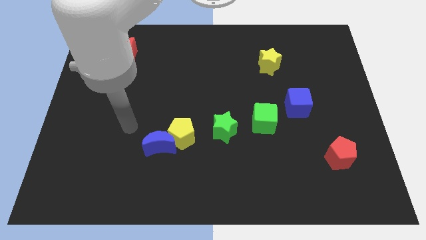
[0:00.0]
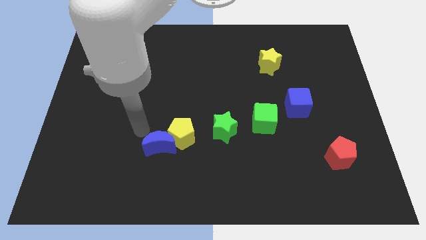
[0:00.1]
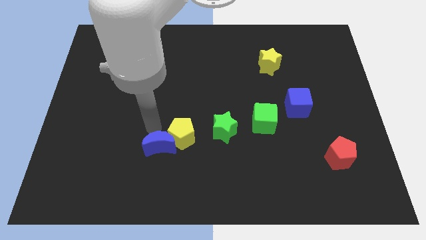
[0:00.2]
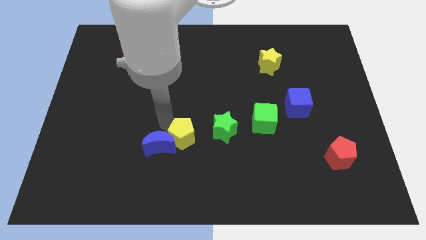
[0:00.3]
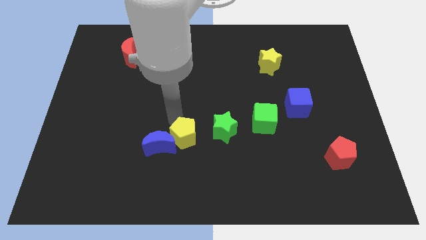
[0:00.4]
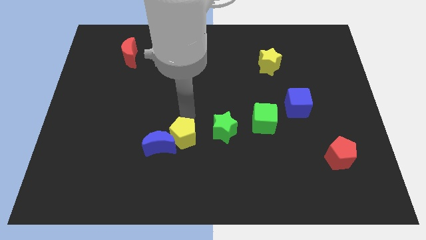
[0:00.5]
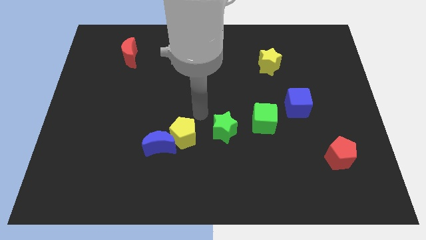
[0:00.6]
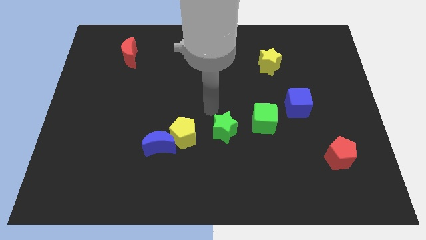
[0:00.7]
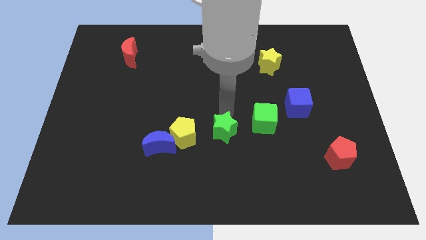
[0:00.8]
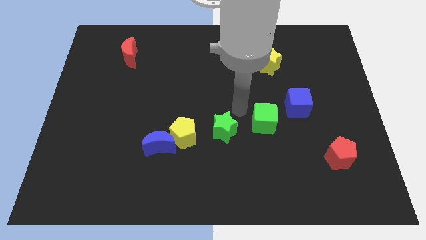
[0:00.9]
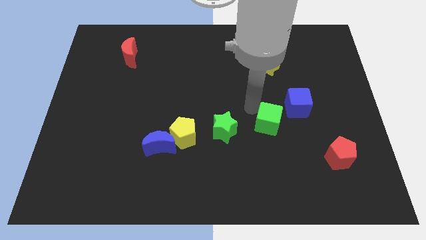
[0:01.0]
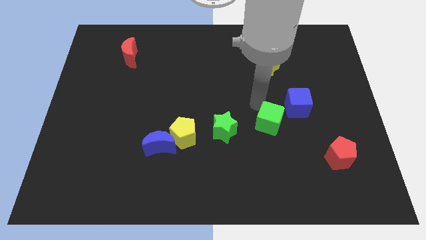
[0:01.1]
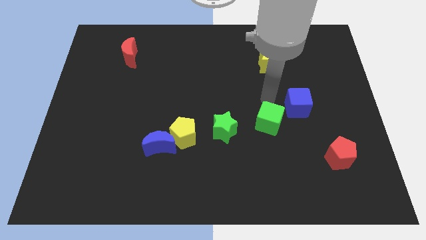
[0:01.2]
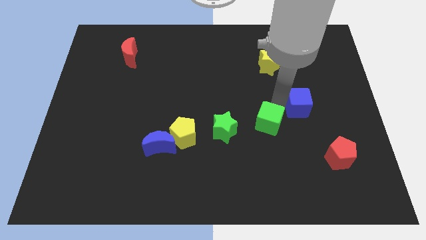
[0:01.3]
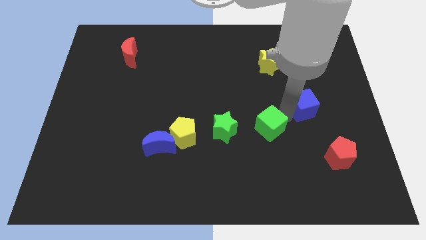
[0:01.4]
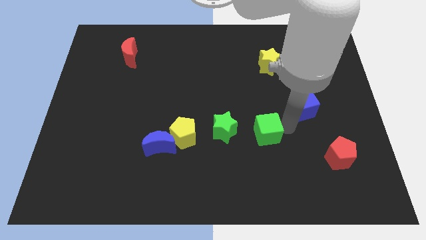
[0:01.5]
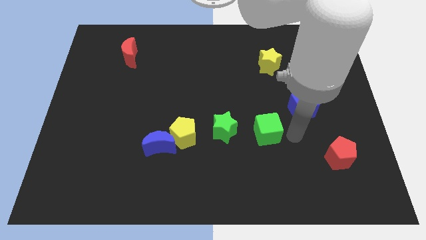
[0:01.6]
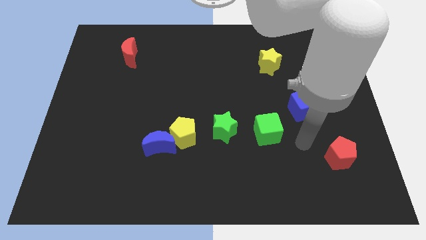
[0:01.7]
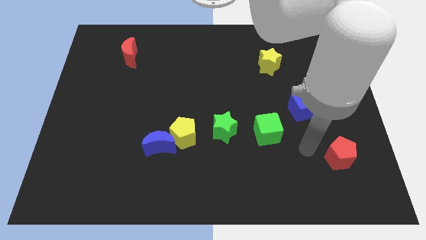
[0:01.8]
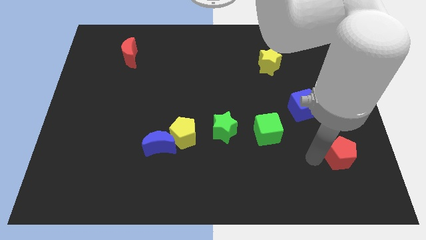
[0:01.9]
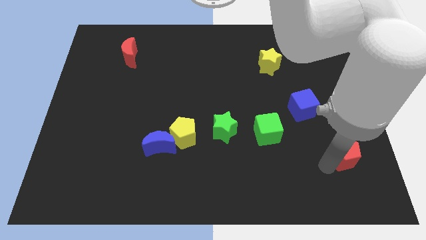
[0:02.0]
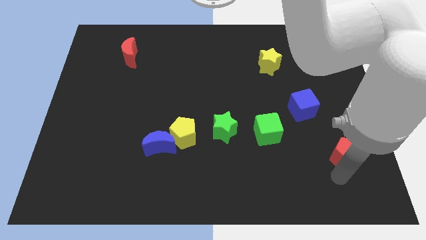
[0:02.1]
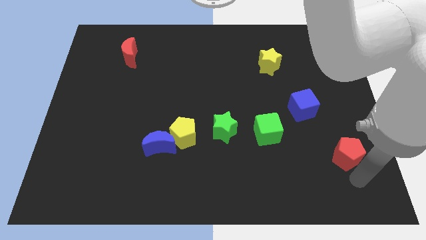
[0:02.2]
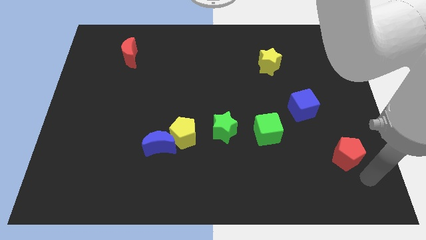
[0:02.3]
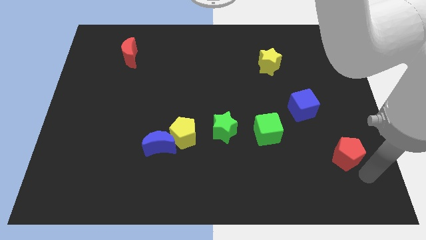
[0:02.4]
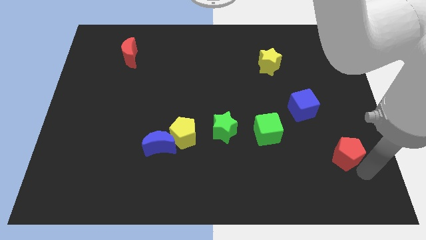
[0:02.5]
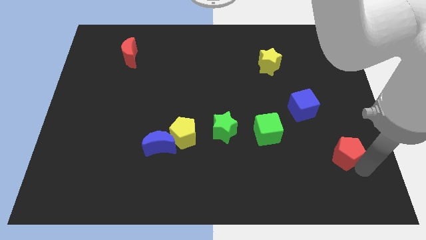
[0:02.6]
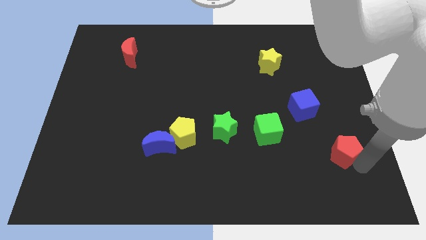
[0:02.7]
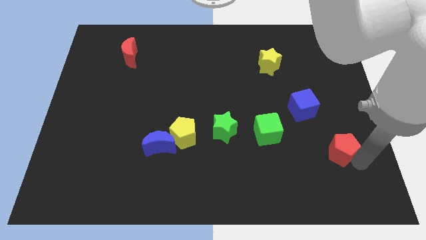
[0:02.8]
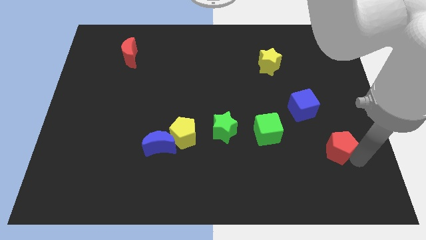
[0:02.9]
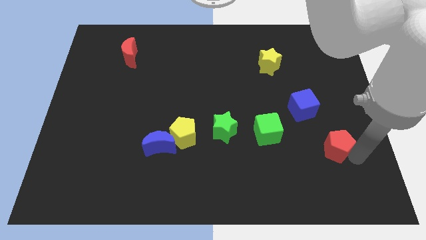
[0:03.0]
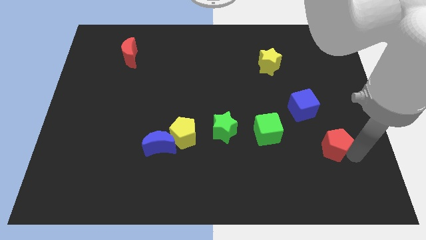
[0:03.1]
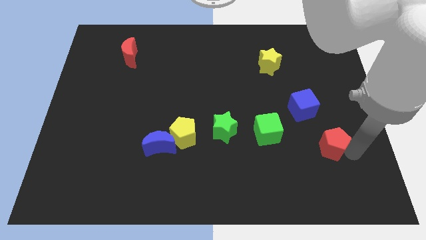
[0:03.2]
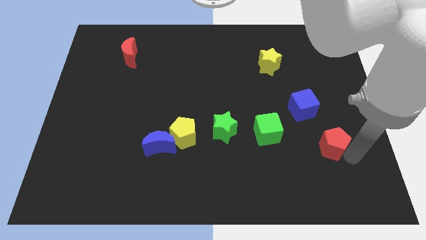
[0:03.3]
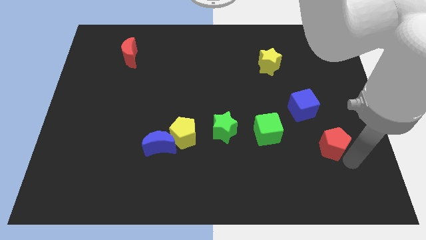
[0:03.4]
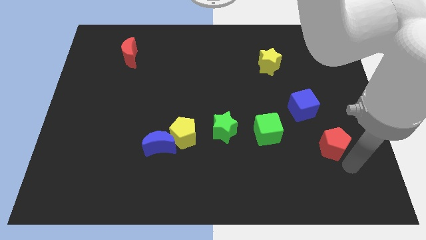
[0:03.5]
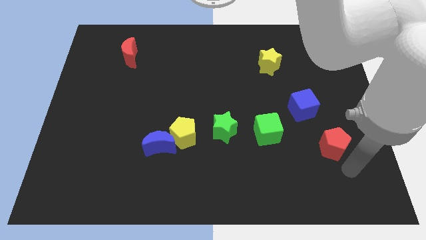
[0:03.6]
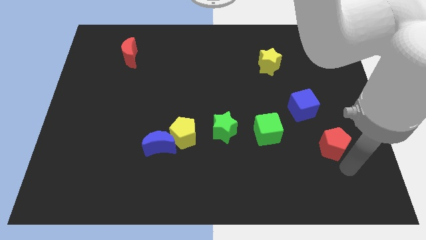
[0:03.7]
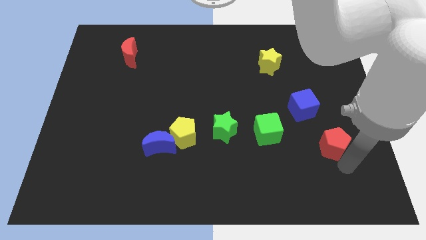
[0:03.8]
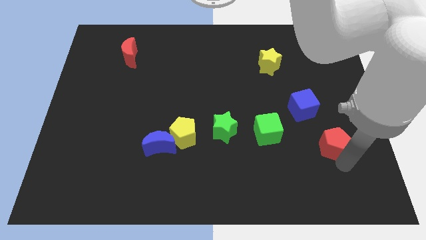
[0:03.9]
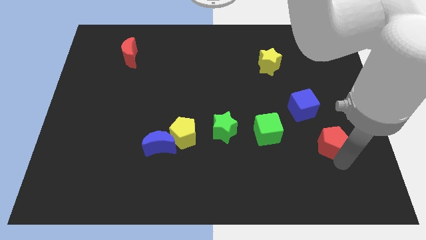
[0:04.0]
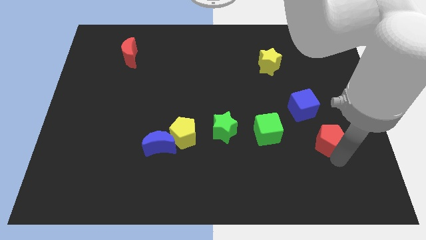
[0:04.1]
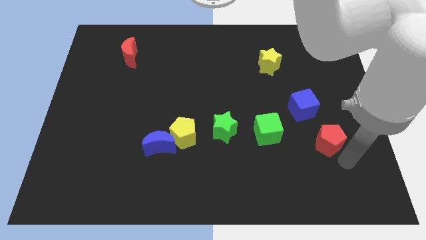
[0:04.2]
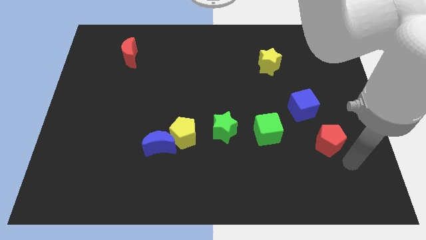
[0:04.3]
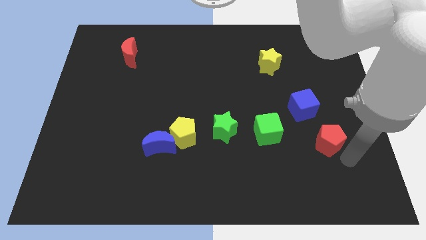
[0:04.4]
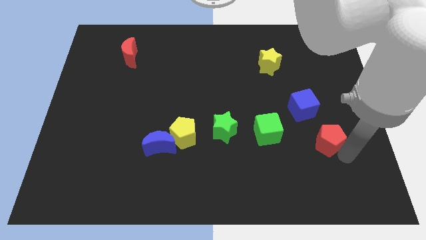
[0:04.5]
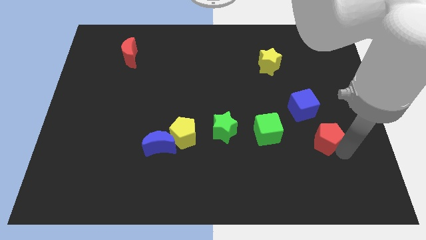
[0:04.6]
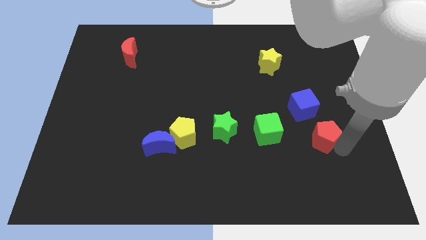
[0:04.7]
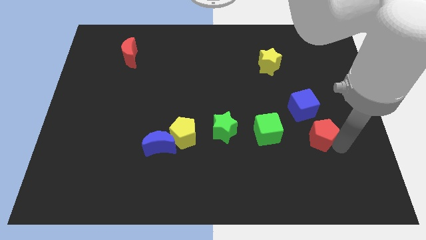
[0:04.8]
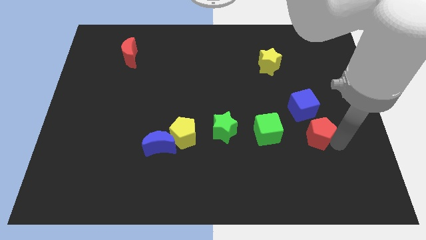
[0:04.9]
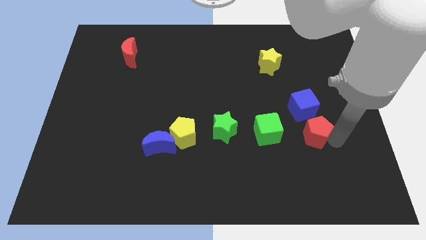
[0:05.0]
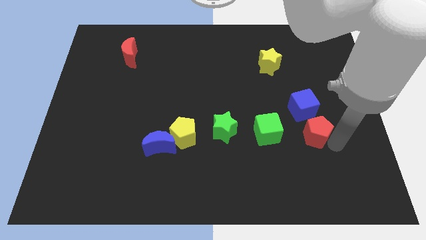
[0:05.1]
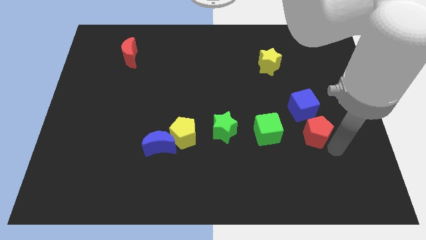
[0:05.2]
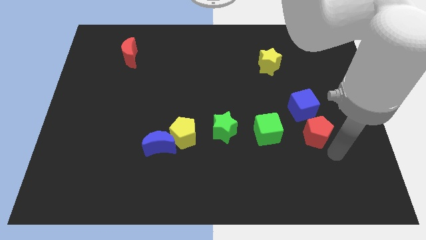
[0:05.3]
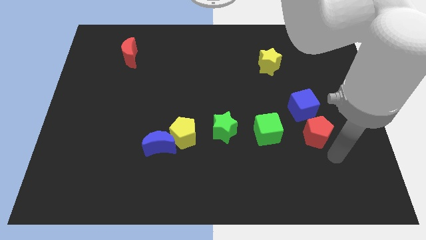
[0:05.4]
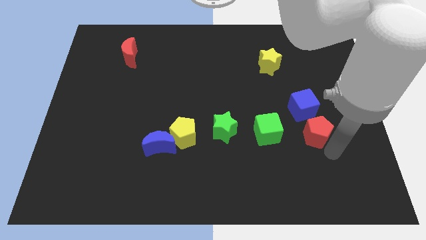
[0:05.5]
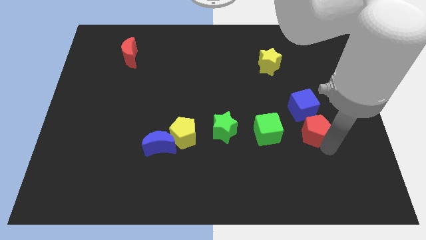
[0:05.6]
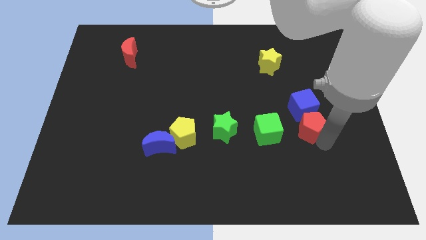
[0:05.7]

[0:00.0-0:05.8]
put the red pentagon close to the blue cube

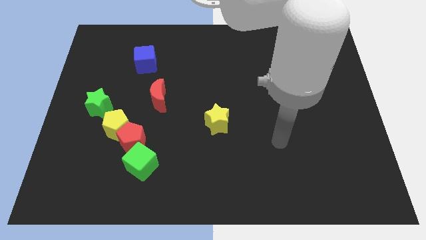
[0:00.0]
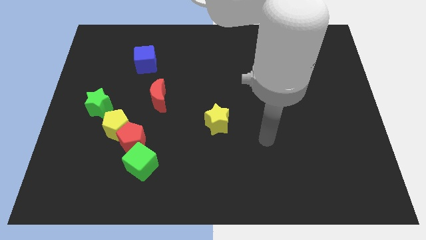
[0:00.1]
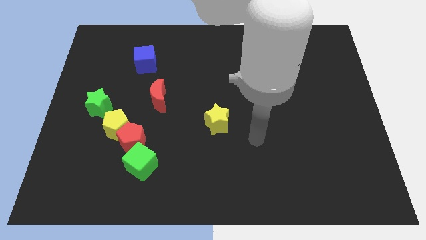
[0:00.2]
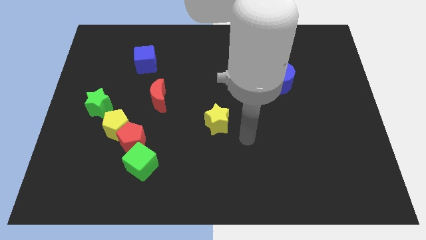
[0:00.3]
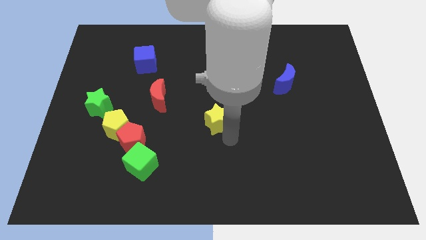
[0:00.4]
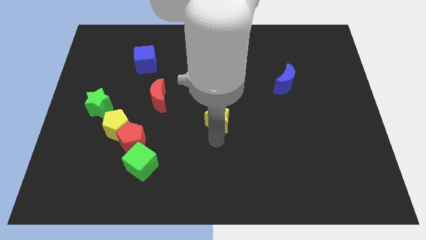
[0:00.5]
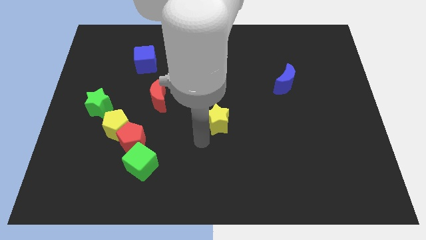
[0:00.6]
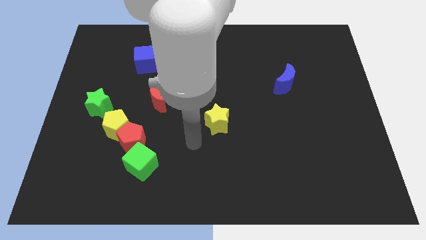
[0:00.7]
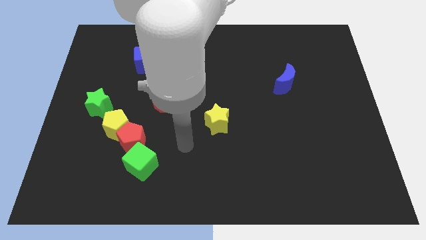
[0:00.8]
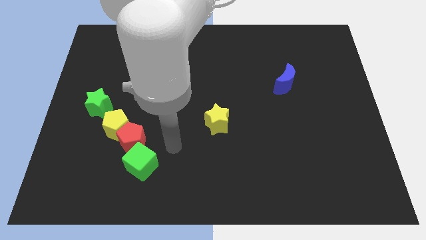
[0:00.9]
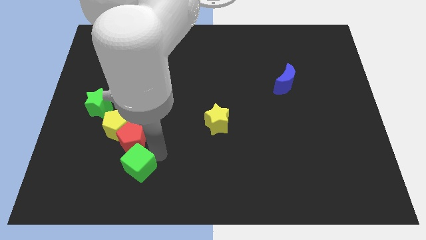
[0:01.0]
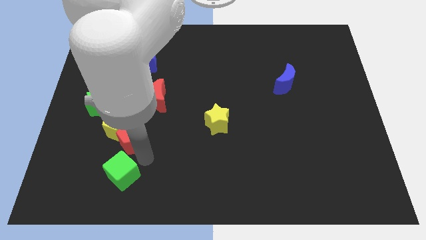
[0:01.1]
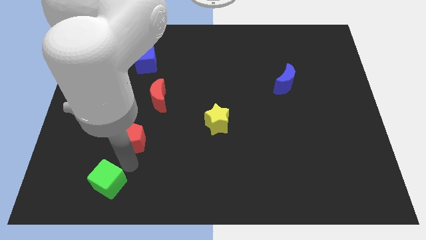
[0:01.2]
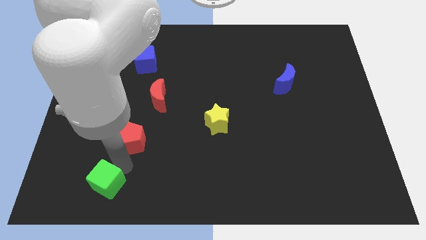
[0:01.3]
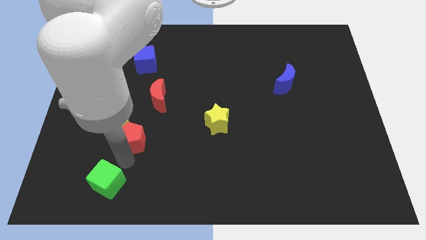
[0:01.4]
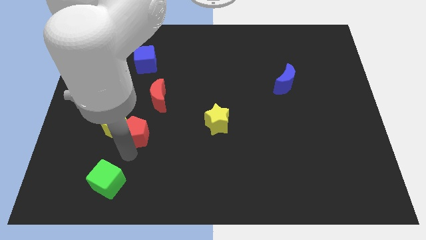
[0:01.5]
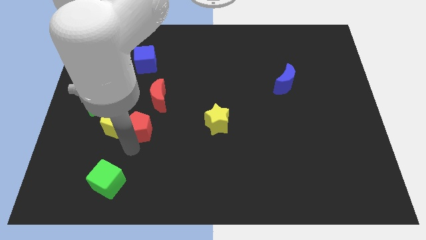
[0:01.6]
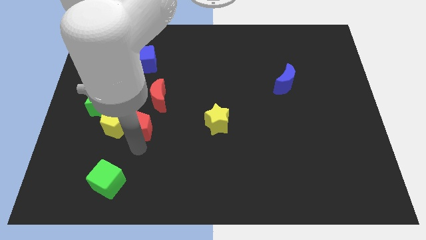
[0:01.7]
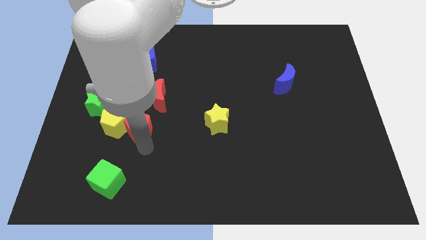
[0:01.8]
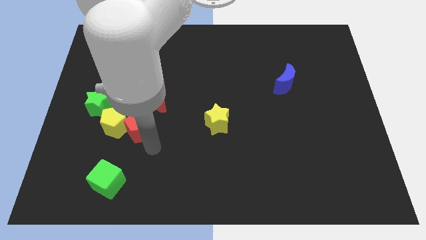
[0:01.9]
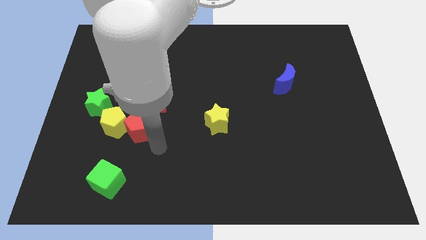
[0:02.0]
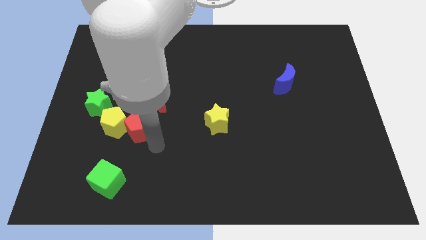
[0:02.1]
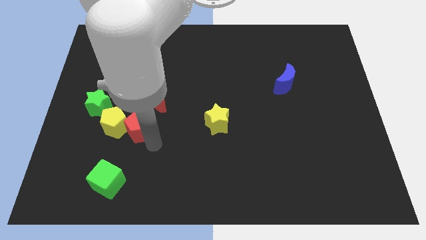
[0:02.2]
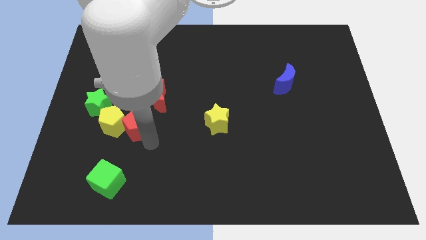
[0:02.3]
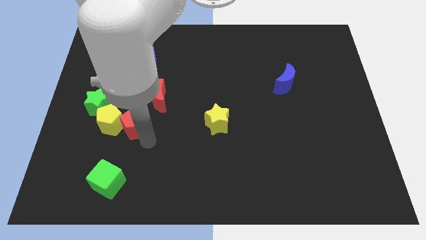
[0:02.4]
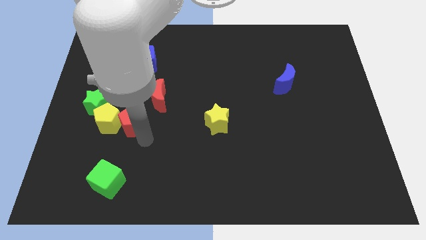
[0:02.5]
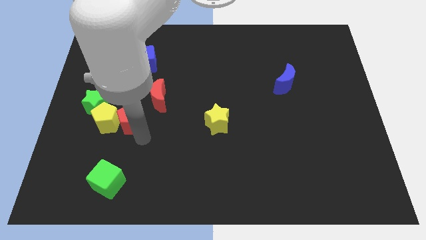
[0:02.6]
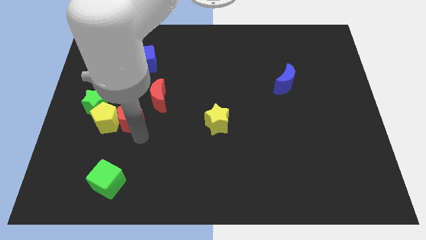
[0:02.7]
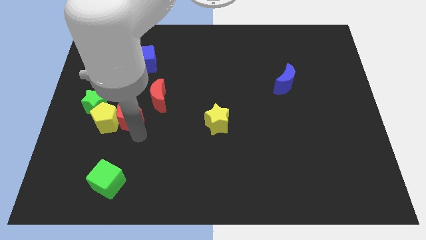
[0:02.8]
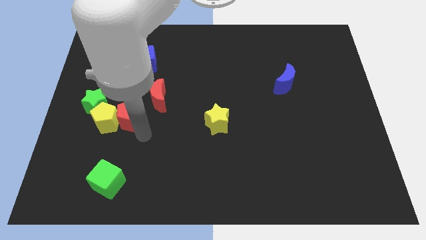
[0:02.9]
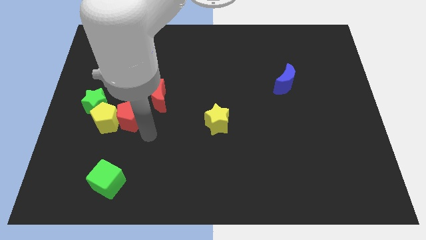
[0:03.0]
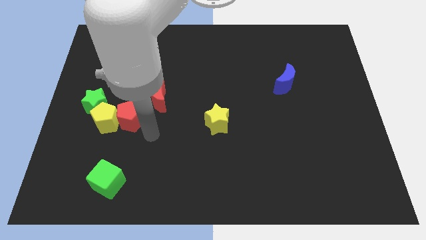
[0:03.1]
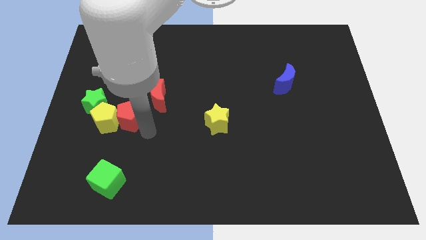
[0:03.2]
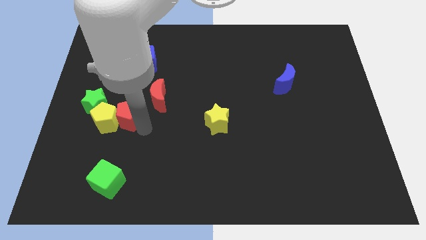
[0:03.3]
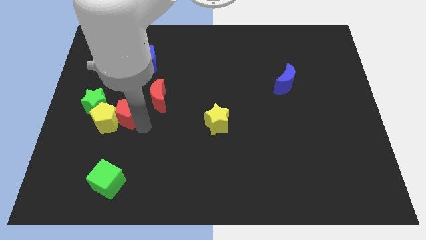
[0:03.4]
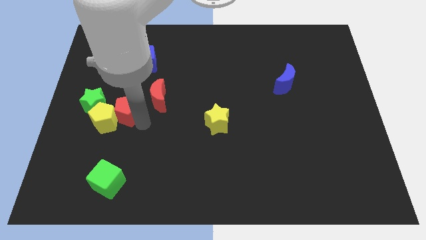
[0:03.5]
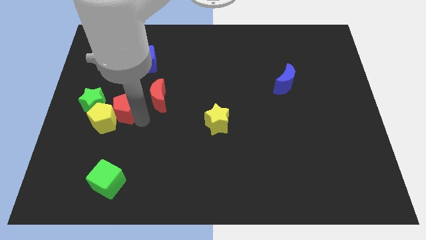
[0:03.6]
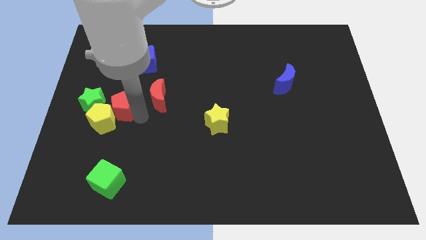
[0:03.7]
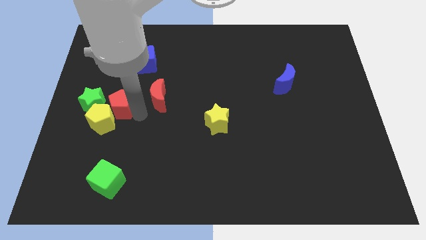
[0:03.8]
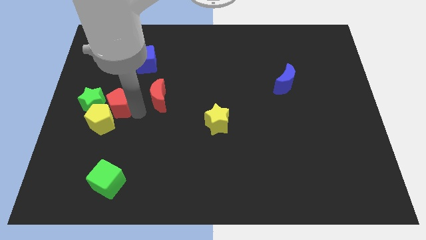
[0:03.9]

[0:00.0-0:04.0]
slide the red pentagon towards the green star
